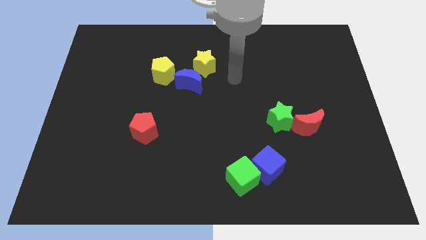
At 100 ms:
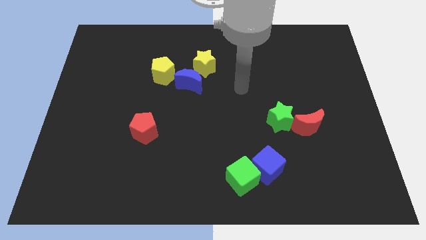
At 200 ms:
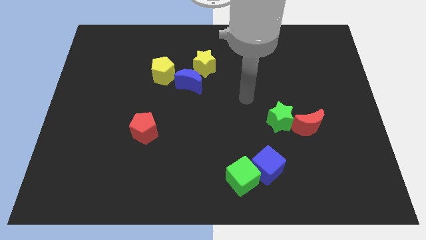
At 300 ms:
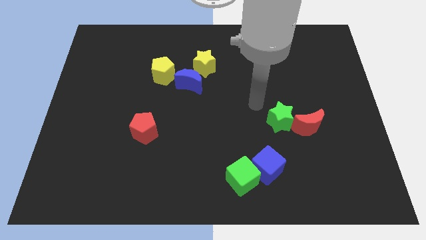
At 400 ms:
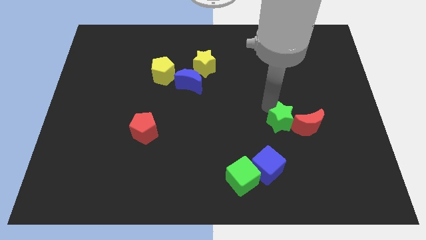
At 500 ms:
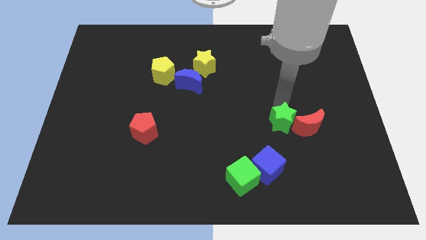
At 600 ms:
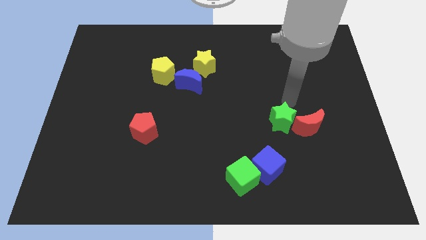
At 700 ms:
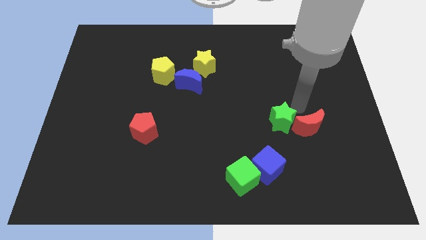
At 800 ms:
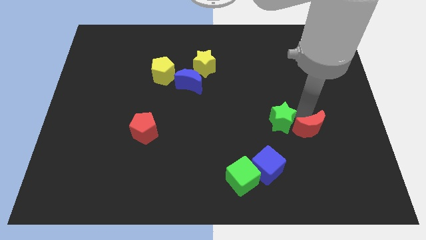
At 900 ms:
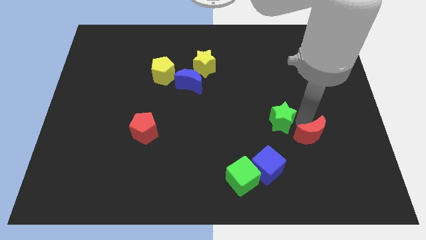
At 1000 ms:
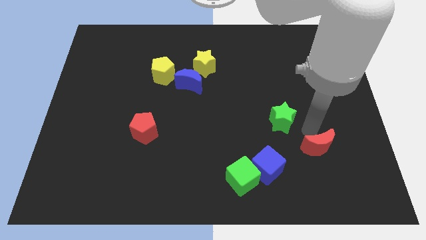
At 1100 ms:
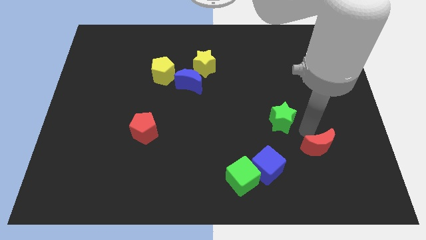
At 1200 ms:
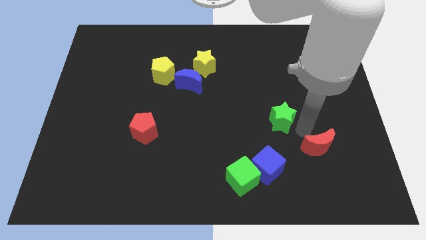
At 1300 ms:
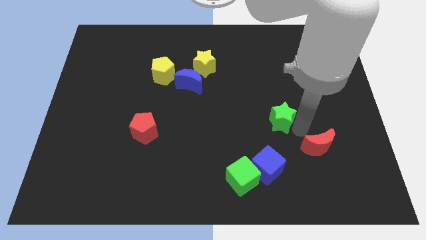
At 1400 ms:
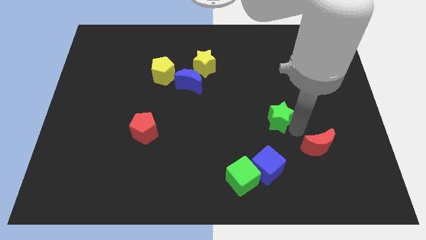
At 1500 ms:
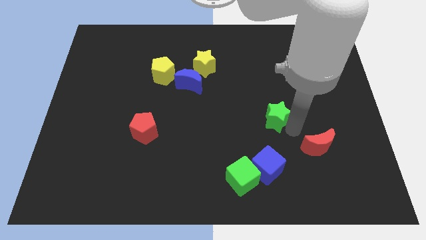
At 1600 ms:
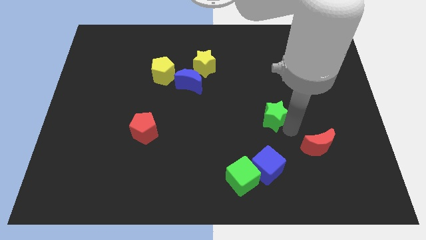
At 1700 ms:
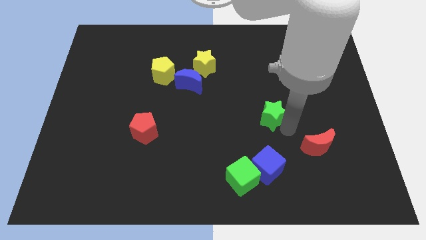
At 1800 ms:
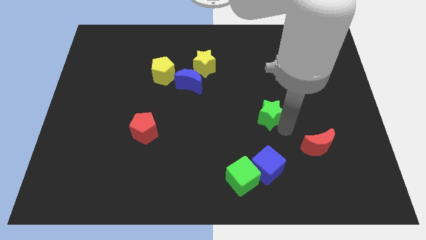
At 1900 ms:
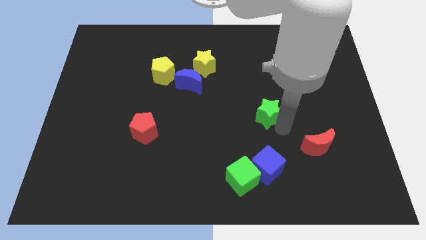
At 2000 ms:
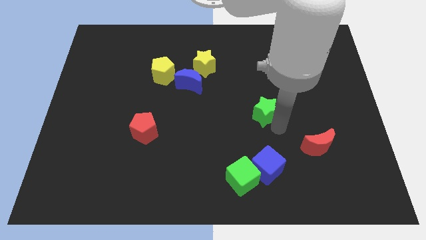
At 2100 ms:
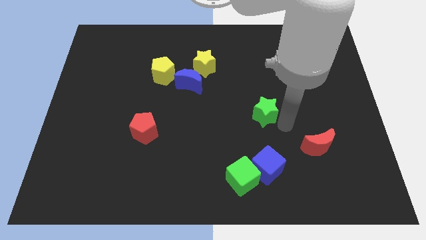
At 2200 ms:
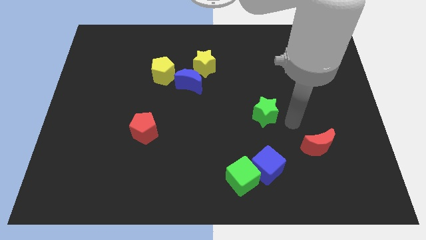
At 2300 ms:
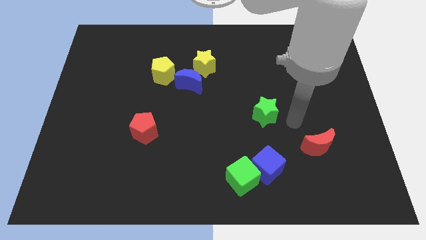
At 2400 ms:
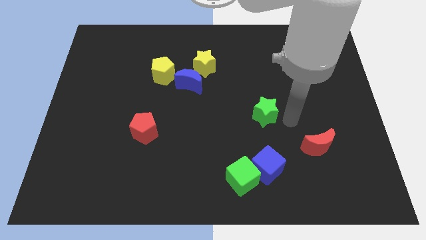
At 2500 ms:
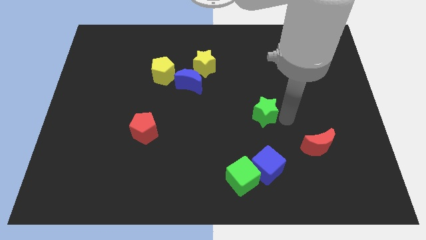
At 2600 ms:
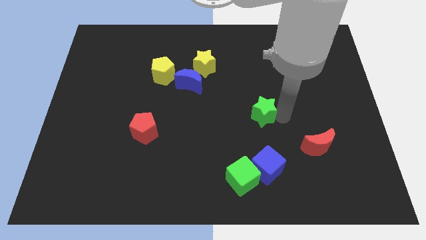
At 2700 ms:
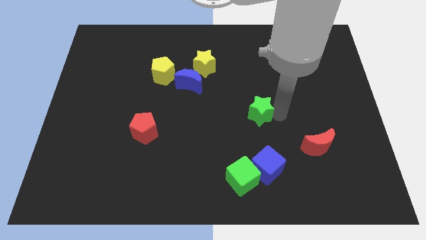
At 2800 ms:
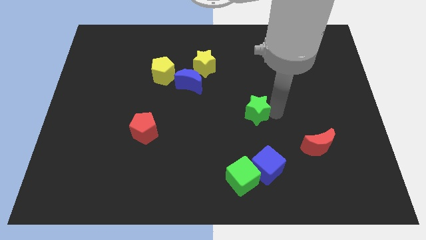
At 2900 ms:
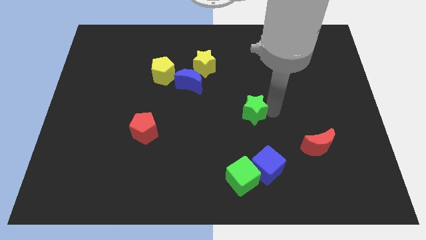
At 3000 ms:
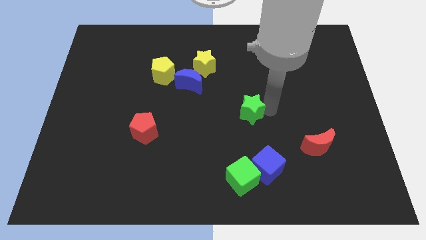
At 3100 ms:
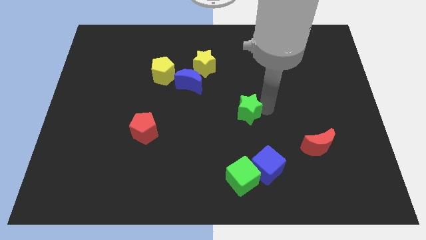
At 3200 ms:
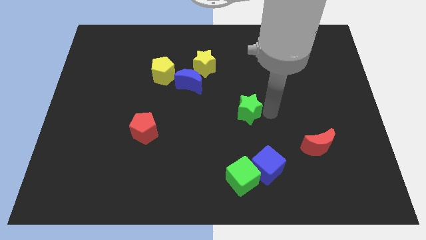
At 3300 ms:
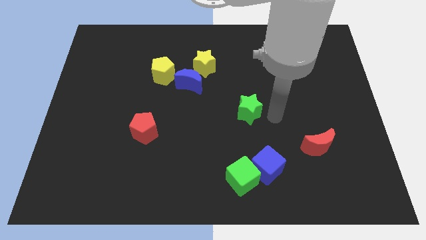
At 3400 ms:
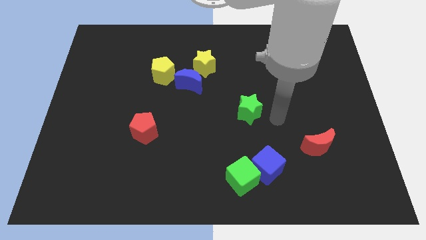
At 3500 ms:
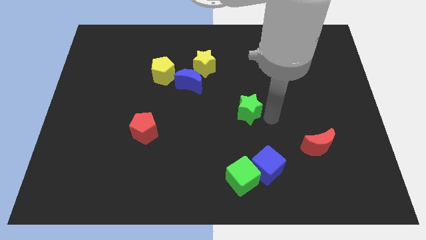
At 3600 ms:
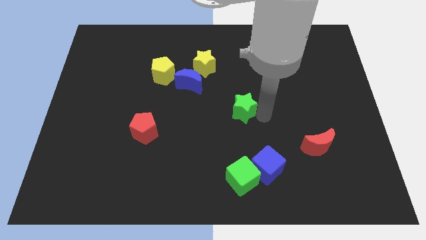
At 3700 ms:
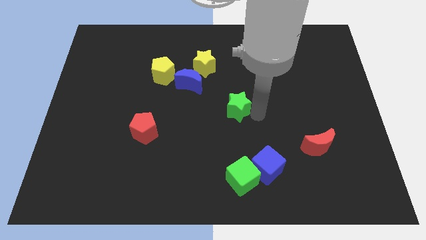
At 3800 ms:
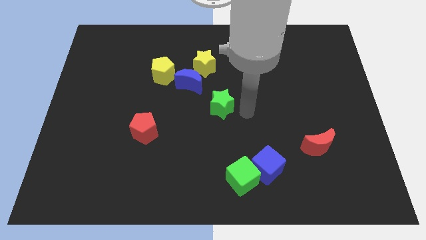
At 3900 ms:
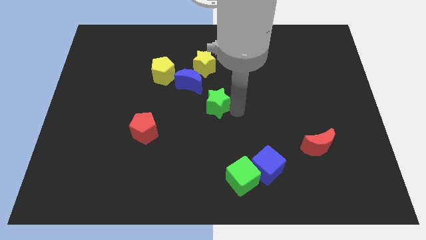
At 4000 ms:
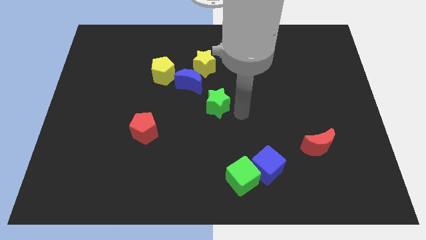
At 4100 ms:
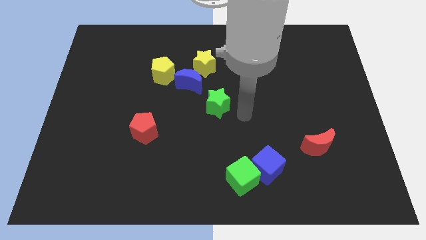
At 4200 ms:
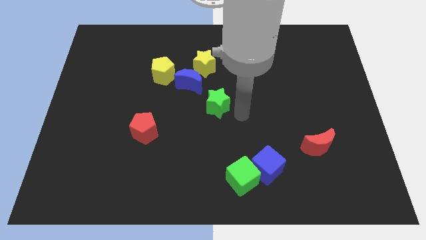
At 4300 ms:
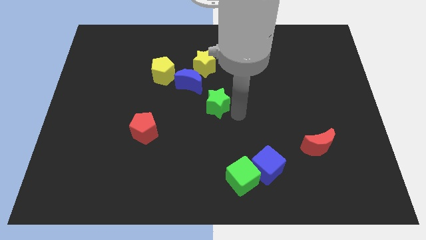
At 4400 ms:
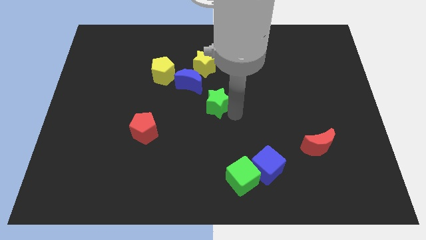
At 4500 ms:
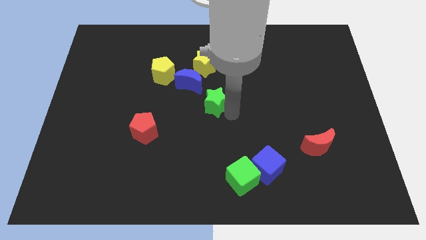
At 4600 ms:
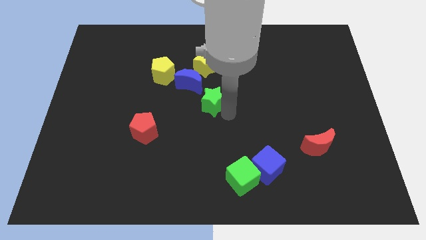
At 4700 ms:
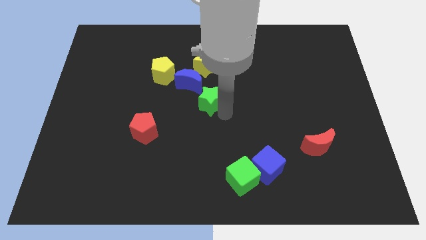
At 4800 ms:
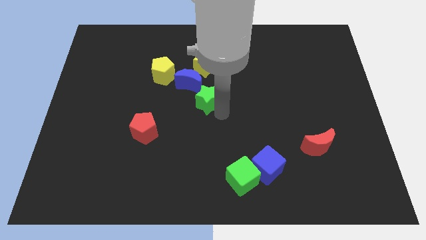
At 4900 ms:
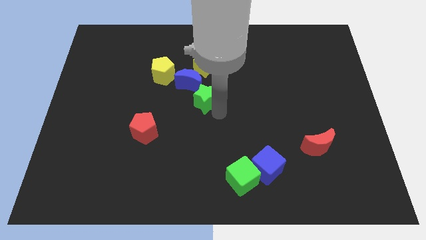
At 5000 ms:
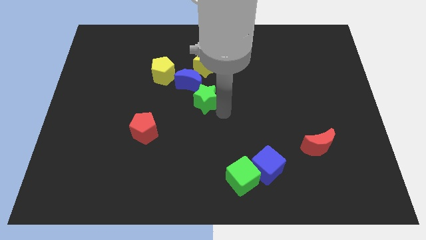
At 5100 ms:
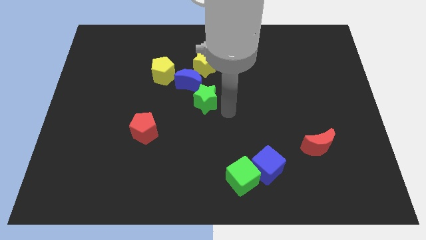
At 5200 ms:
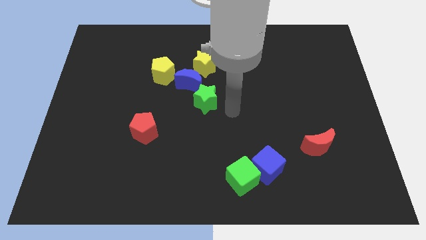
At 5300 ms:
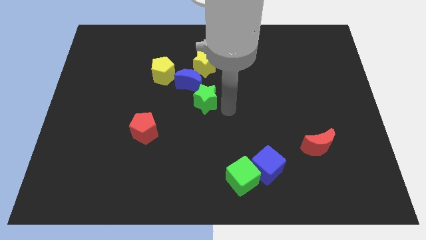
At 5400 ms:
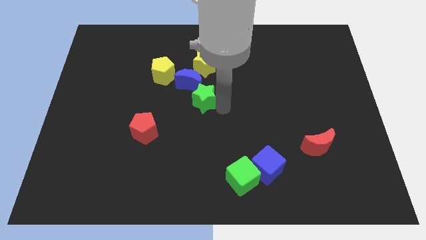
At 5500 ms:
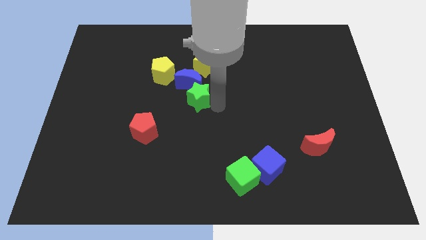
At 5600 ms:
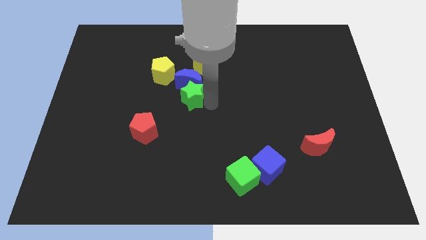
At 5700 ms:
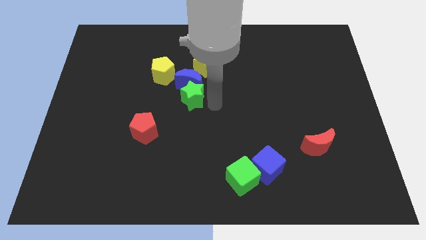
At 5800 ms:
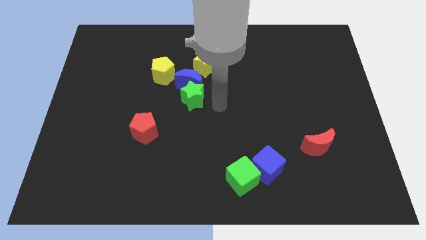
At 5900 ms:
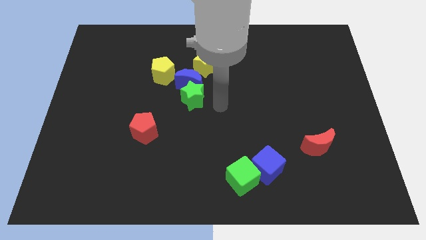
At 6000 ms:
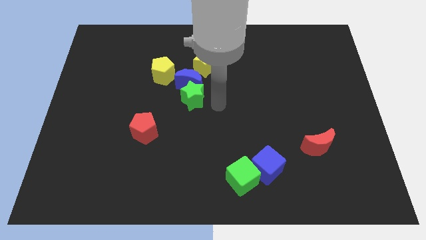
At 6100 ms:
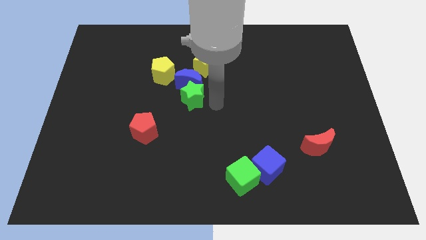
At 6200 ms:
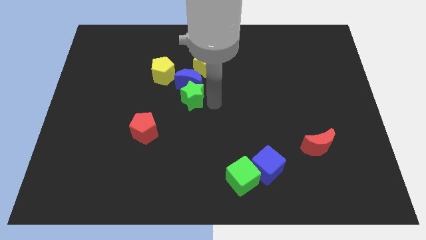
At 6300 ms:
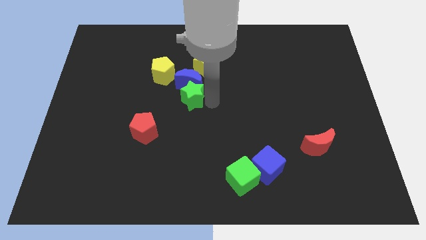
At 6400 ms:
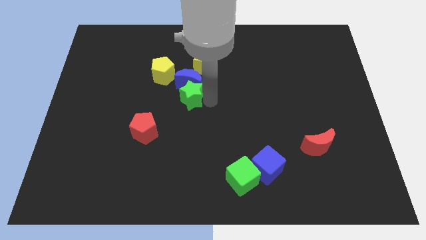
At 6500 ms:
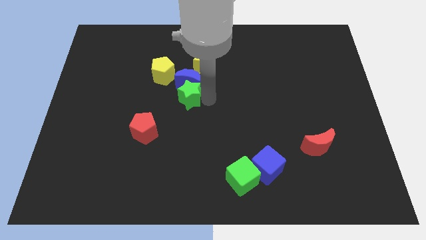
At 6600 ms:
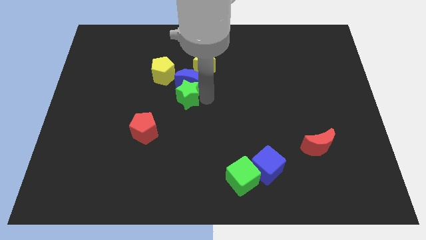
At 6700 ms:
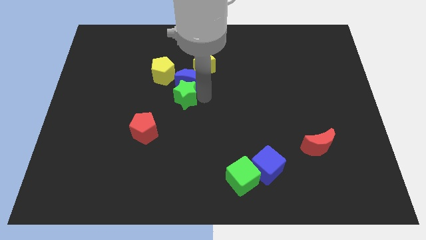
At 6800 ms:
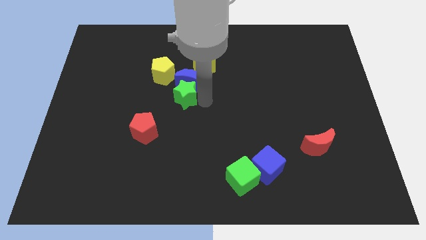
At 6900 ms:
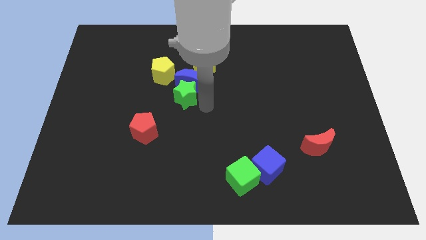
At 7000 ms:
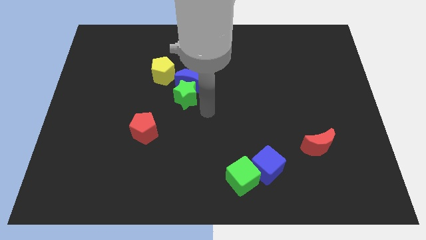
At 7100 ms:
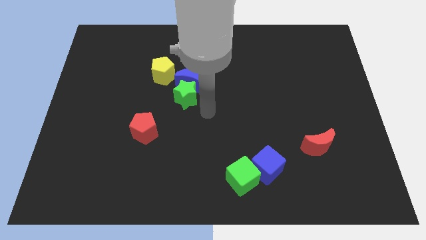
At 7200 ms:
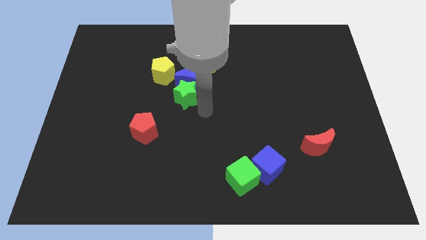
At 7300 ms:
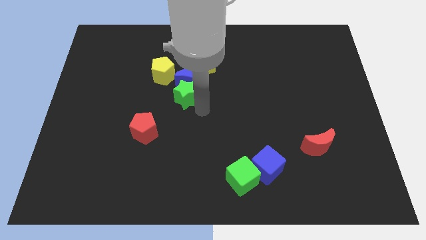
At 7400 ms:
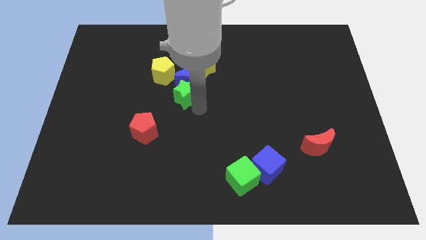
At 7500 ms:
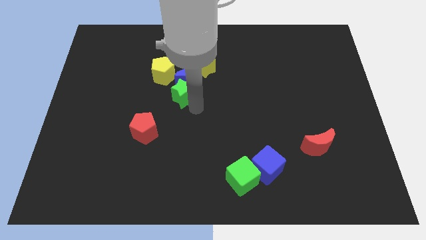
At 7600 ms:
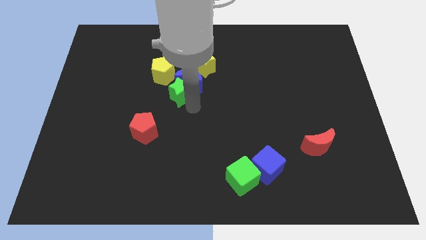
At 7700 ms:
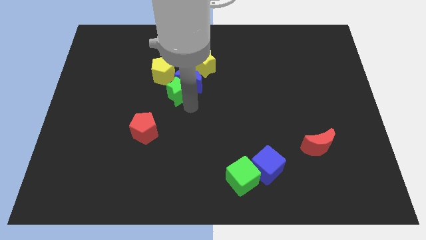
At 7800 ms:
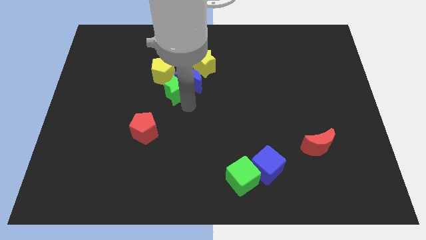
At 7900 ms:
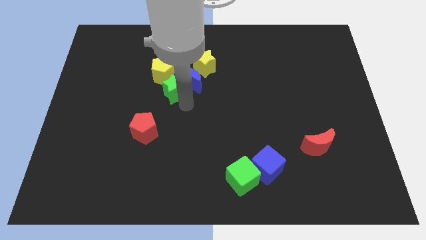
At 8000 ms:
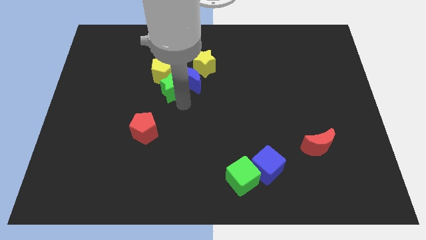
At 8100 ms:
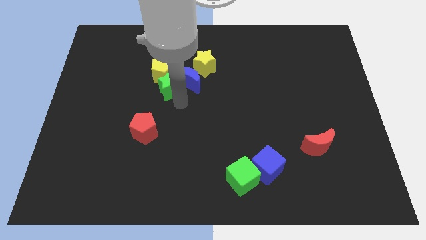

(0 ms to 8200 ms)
slide the green star to the yellow pentagon
